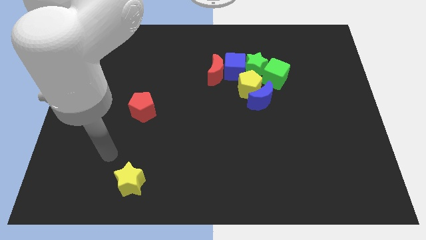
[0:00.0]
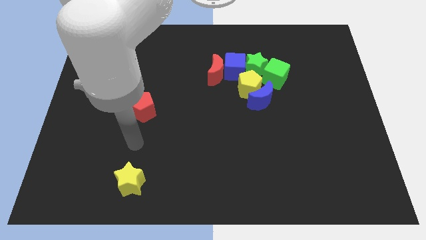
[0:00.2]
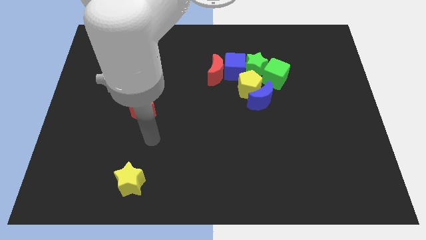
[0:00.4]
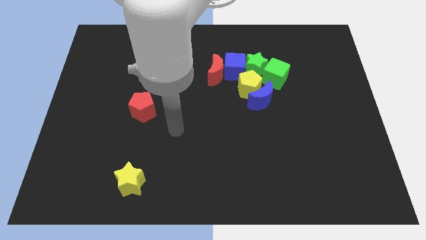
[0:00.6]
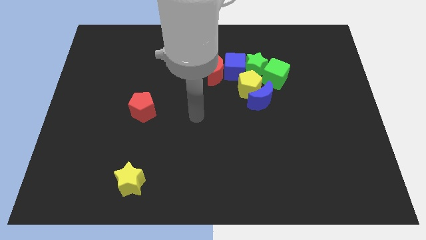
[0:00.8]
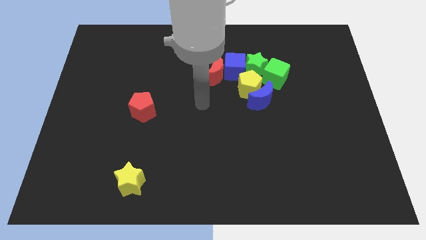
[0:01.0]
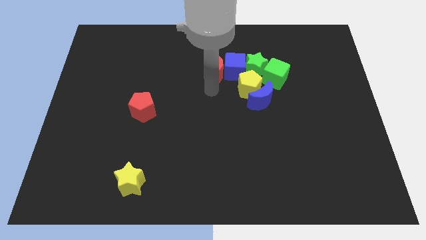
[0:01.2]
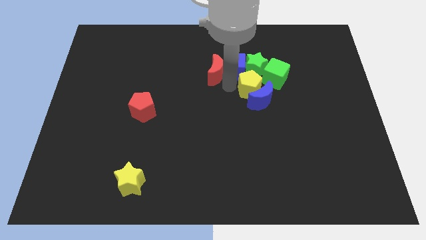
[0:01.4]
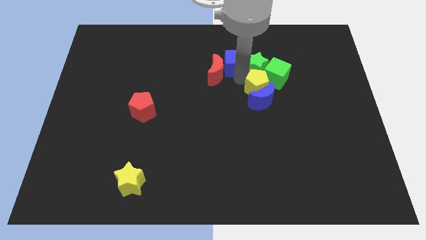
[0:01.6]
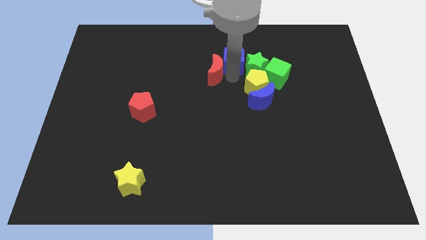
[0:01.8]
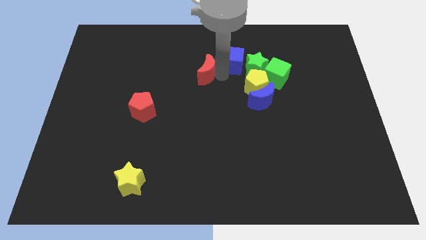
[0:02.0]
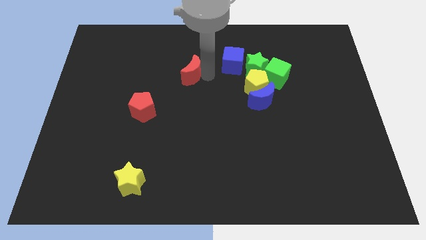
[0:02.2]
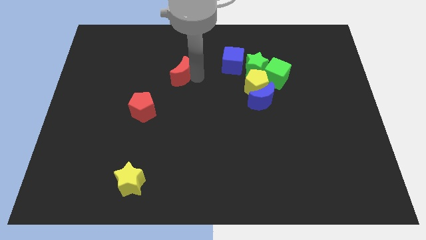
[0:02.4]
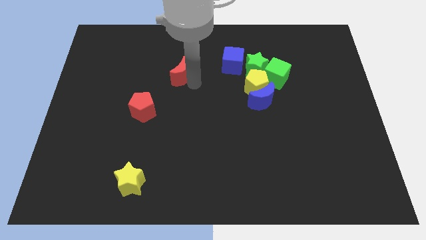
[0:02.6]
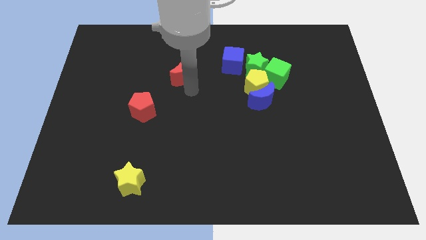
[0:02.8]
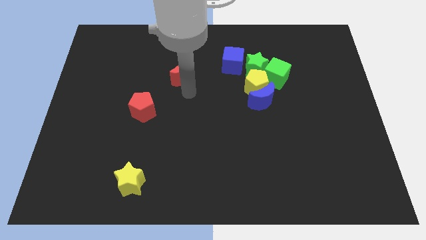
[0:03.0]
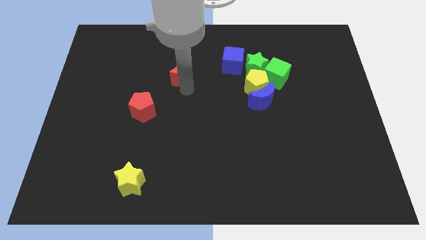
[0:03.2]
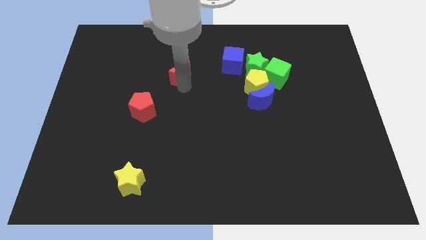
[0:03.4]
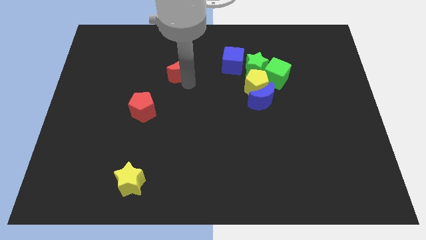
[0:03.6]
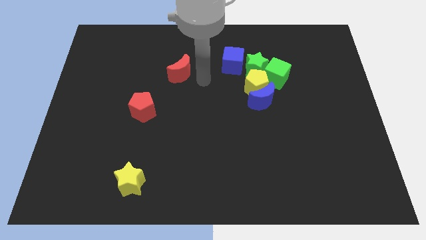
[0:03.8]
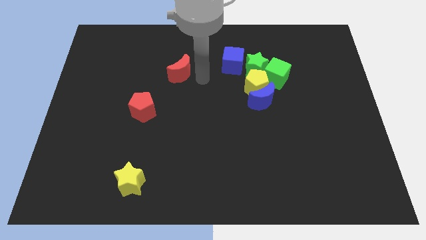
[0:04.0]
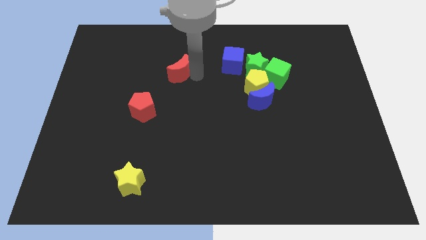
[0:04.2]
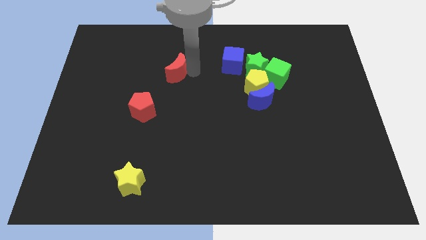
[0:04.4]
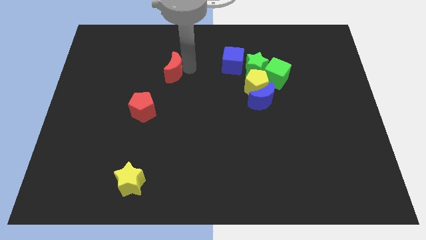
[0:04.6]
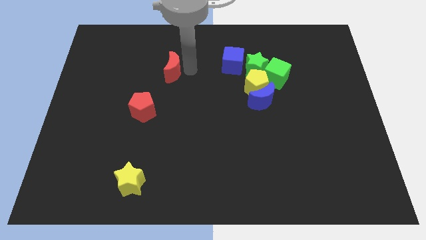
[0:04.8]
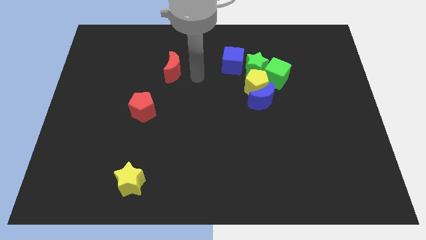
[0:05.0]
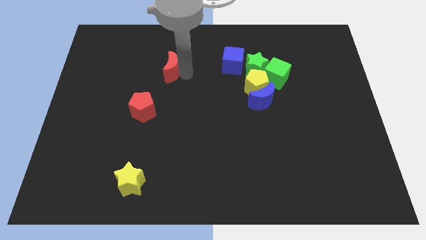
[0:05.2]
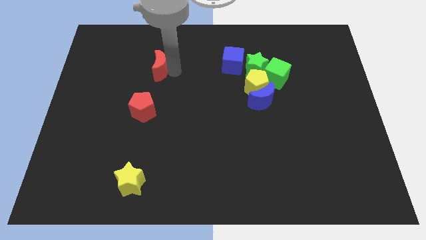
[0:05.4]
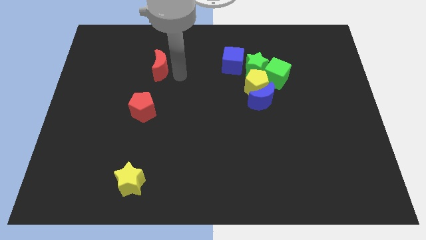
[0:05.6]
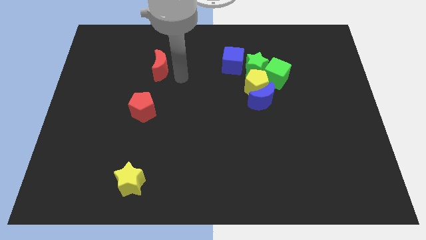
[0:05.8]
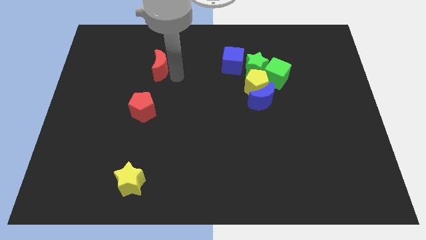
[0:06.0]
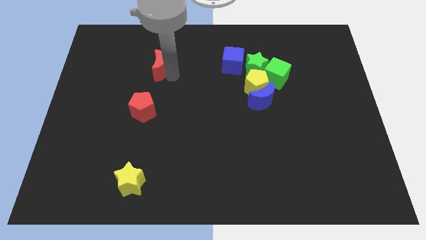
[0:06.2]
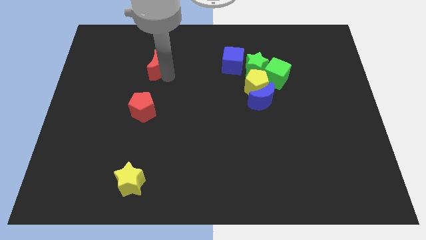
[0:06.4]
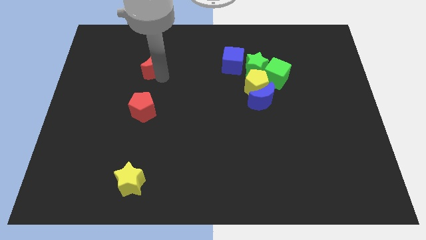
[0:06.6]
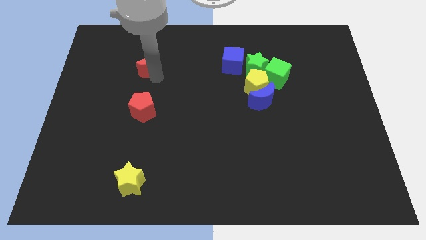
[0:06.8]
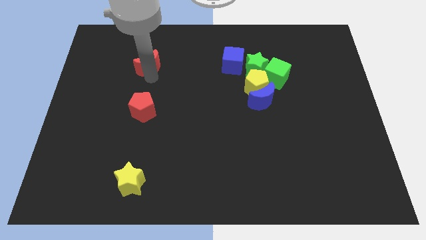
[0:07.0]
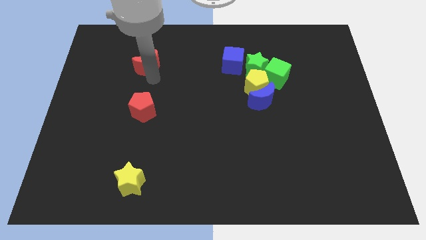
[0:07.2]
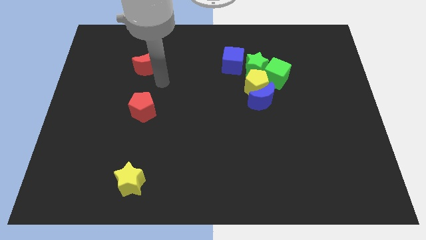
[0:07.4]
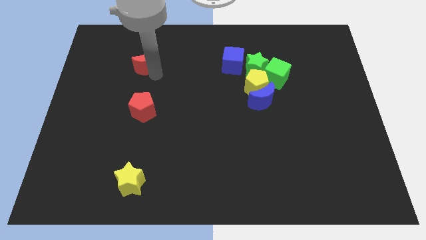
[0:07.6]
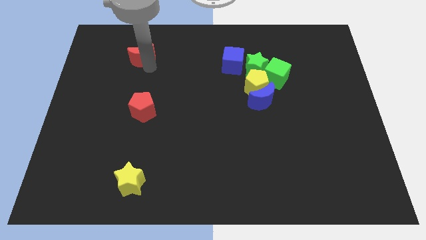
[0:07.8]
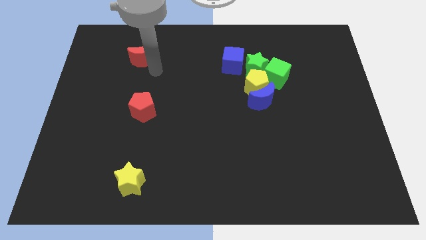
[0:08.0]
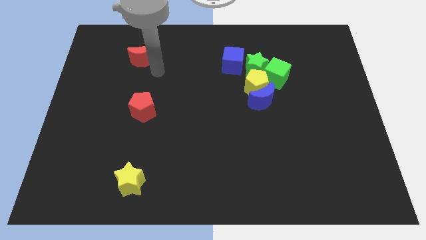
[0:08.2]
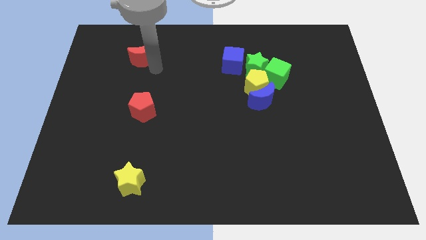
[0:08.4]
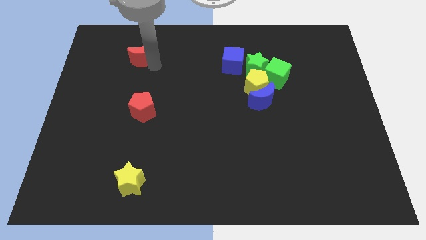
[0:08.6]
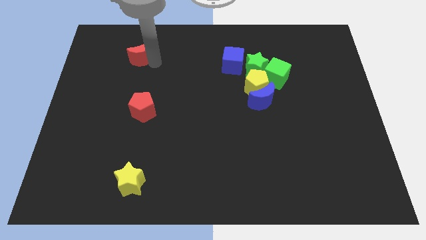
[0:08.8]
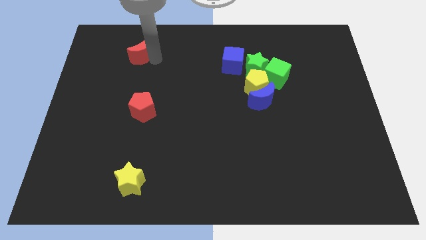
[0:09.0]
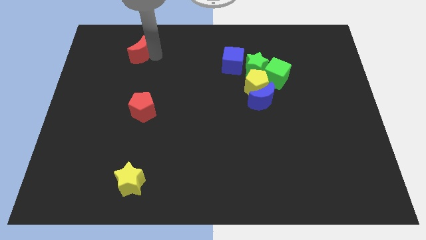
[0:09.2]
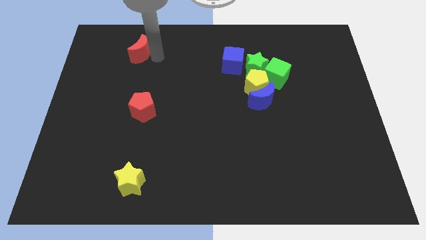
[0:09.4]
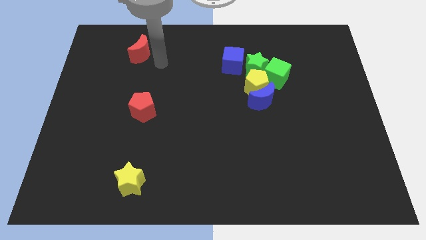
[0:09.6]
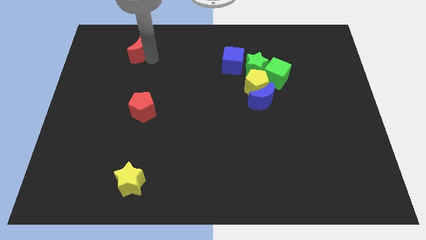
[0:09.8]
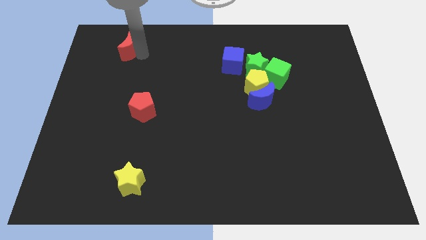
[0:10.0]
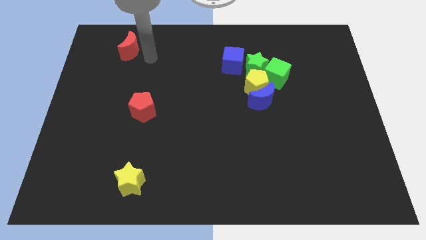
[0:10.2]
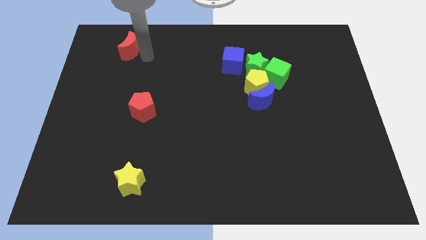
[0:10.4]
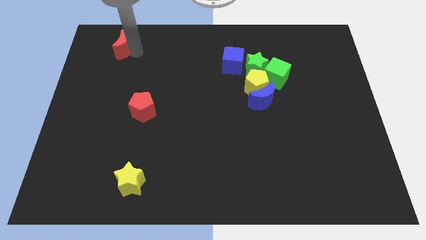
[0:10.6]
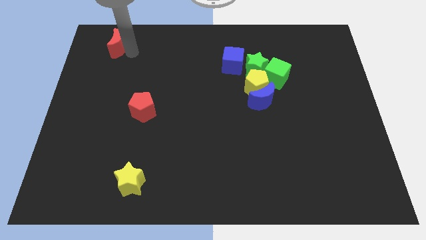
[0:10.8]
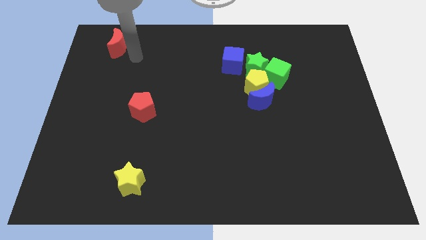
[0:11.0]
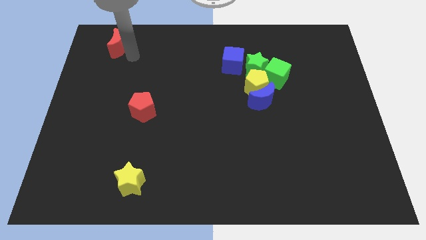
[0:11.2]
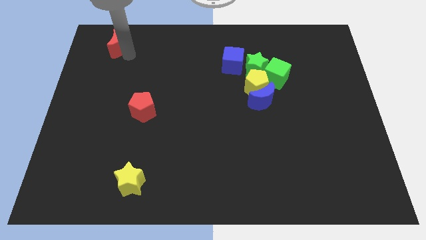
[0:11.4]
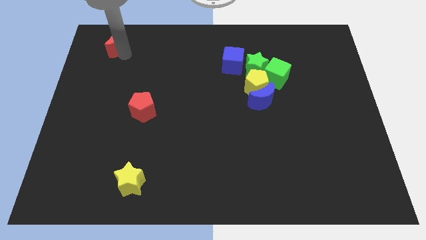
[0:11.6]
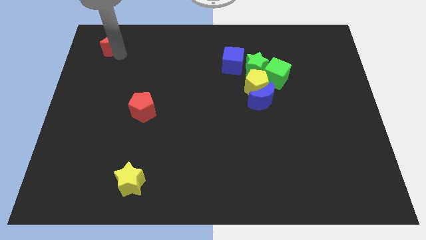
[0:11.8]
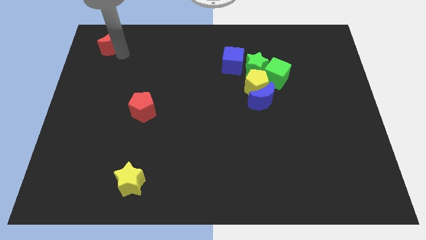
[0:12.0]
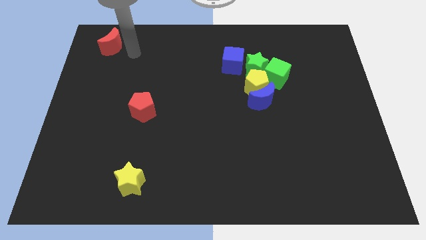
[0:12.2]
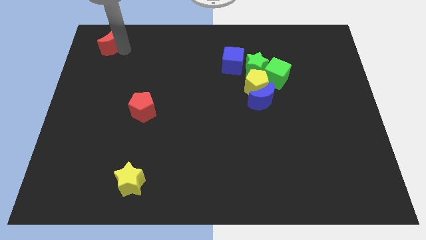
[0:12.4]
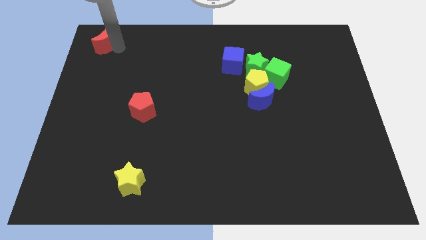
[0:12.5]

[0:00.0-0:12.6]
push the red moon to the top left

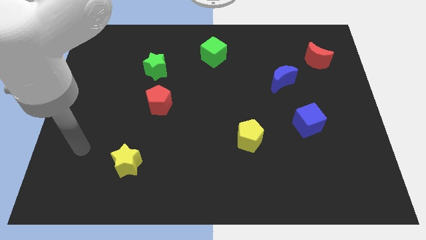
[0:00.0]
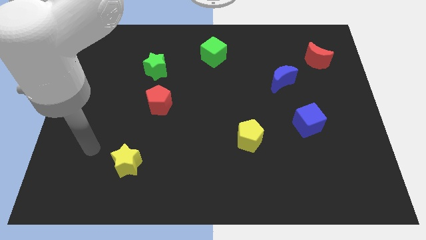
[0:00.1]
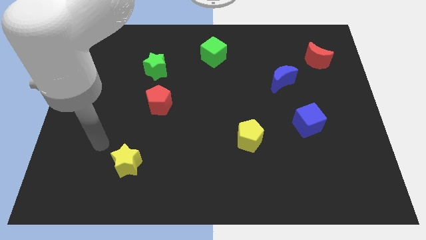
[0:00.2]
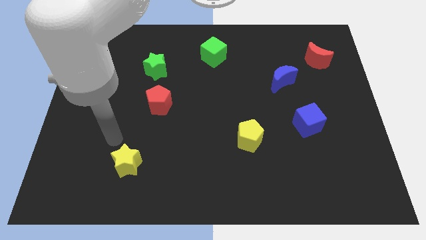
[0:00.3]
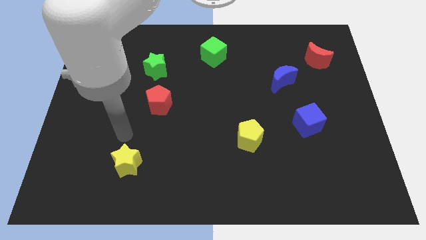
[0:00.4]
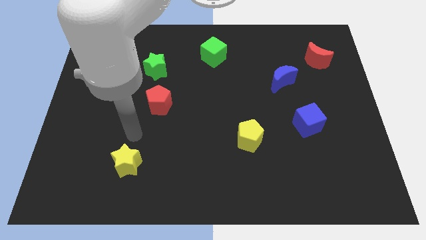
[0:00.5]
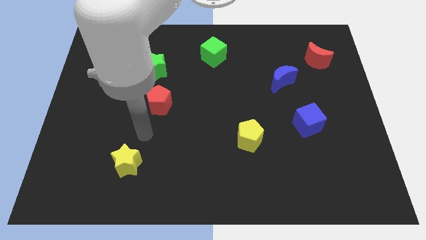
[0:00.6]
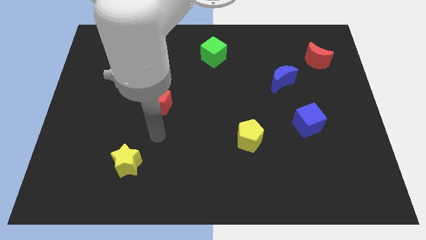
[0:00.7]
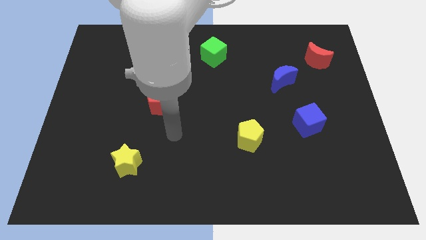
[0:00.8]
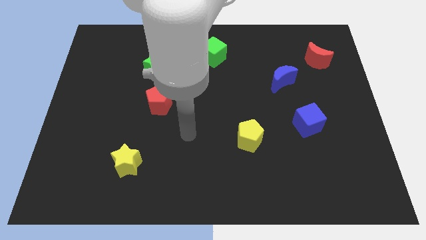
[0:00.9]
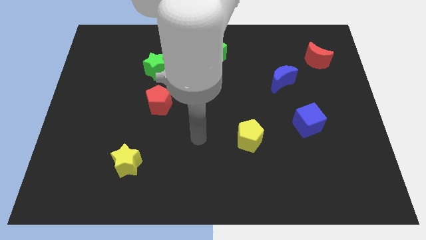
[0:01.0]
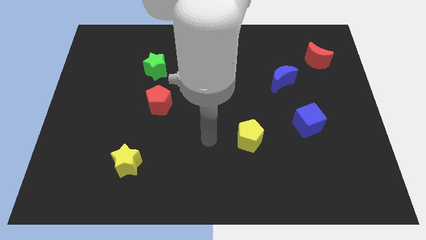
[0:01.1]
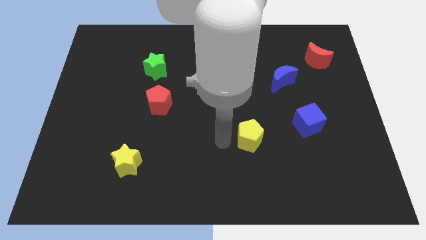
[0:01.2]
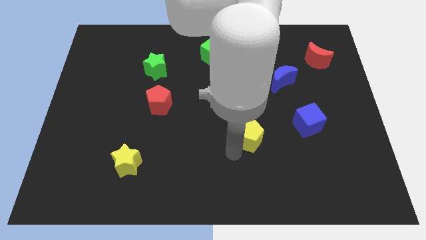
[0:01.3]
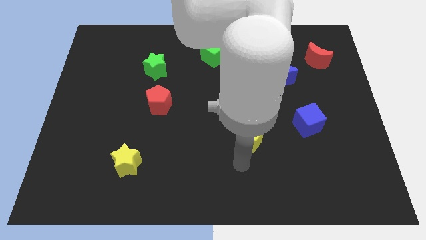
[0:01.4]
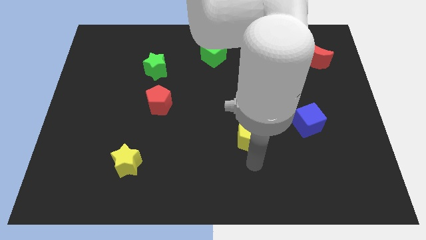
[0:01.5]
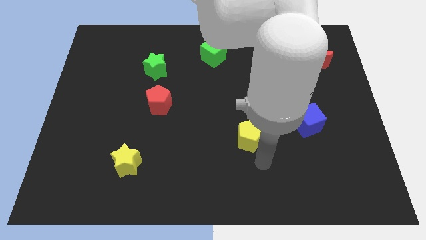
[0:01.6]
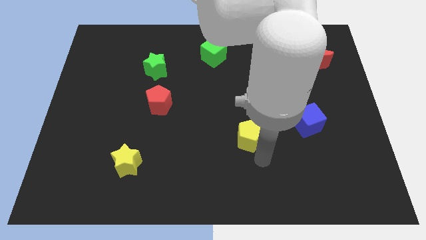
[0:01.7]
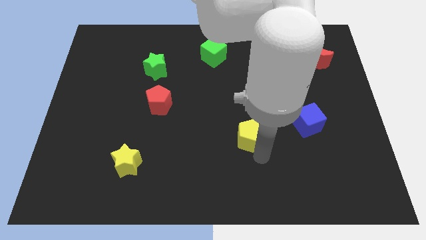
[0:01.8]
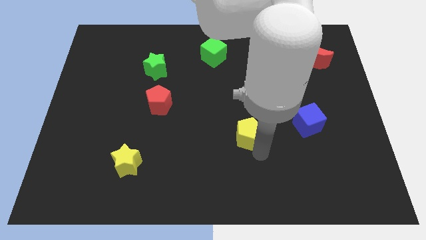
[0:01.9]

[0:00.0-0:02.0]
move the yellow pentagon to the center
